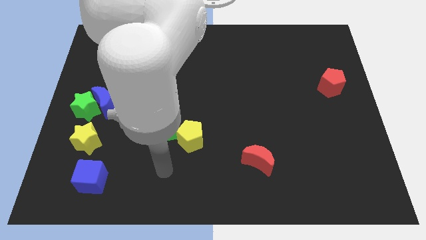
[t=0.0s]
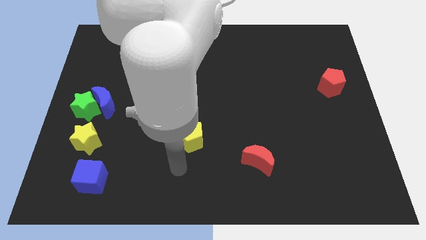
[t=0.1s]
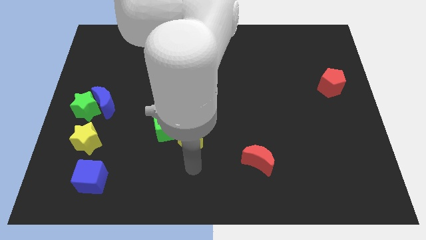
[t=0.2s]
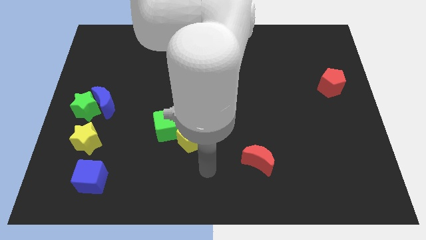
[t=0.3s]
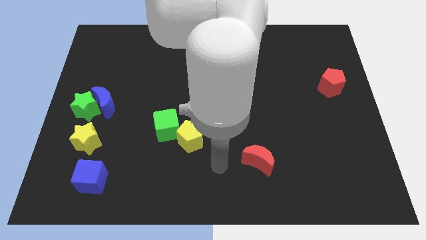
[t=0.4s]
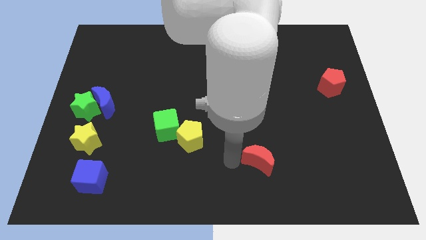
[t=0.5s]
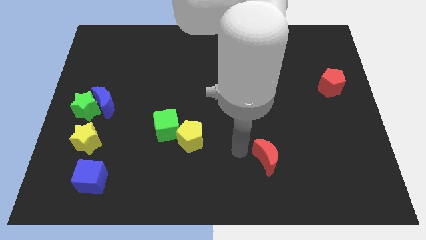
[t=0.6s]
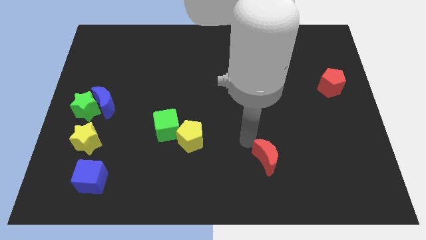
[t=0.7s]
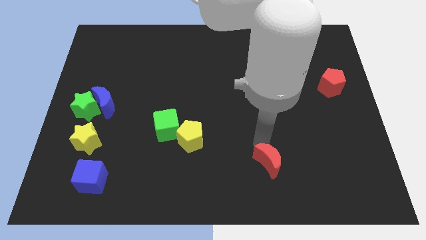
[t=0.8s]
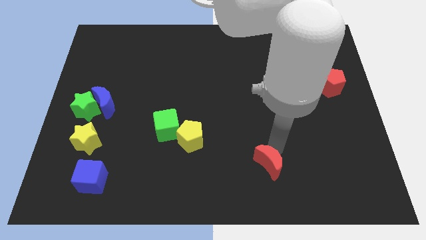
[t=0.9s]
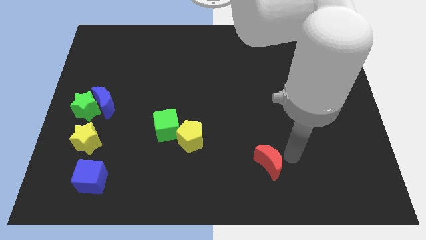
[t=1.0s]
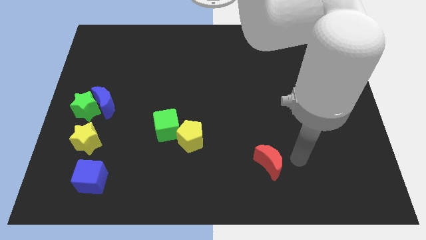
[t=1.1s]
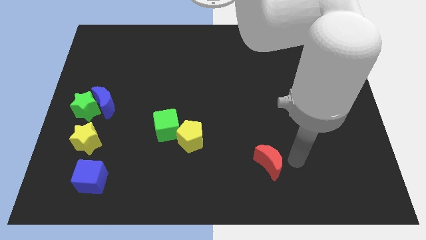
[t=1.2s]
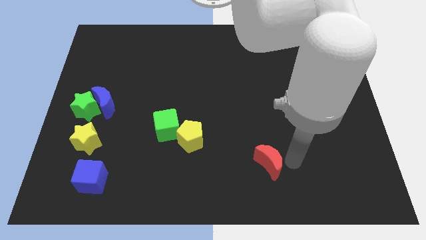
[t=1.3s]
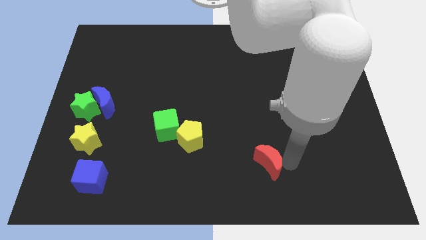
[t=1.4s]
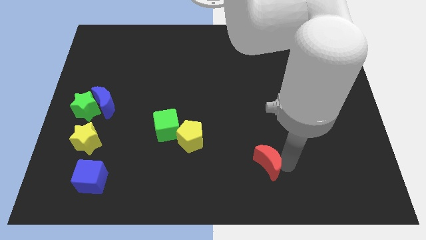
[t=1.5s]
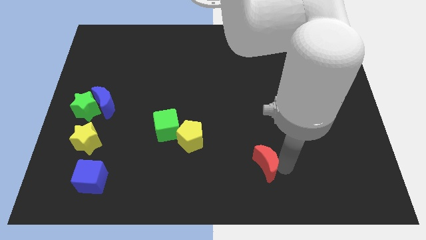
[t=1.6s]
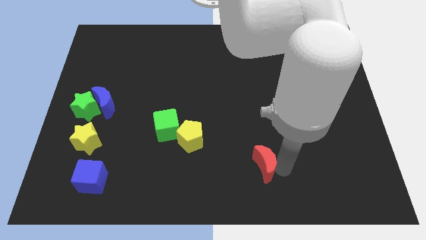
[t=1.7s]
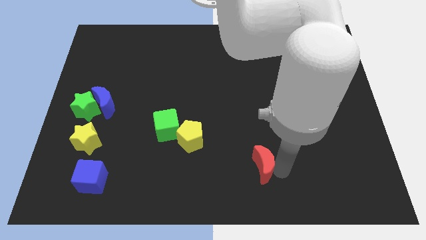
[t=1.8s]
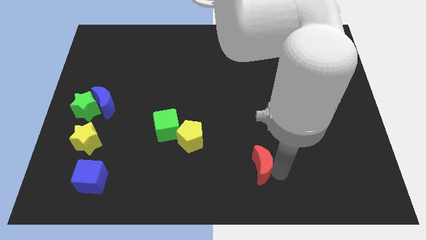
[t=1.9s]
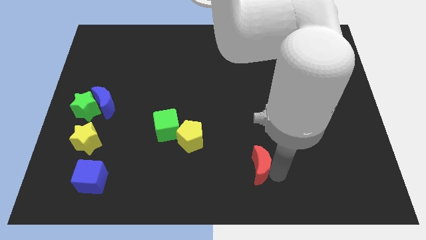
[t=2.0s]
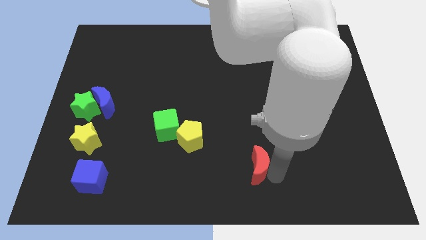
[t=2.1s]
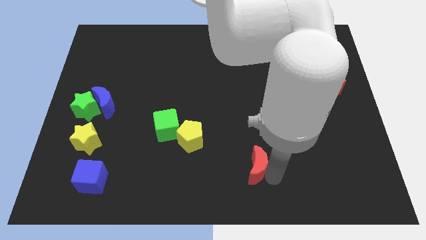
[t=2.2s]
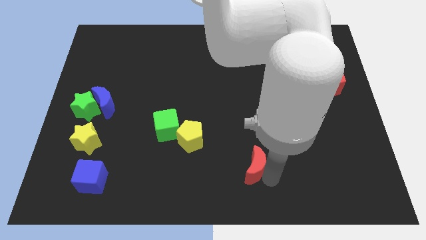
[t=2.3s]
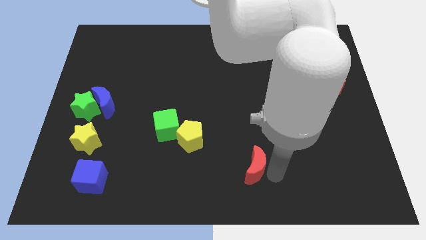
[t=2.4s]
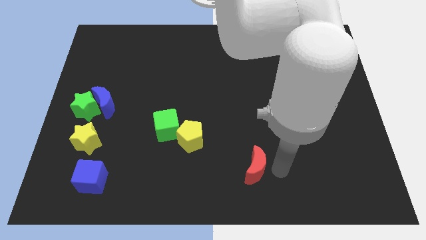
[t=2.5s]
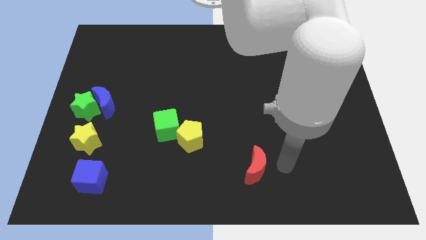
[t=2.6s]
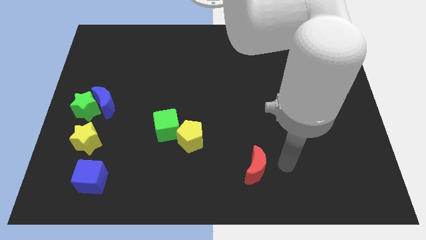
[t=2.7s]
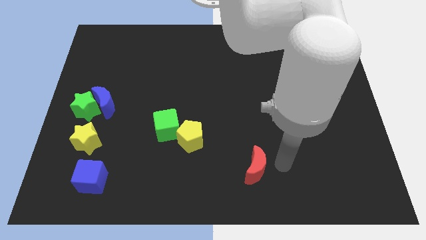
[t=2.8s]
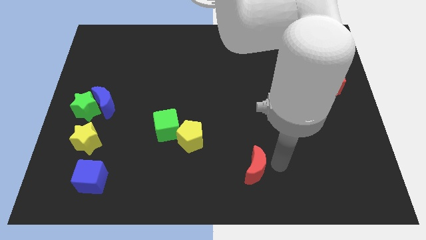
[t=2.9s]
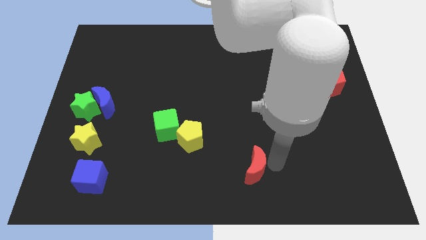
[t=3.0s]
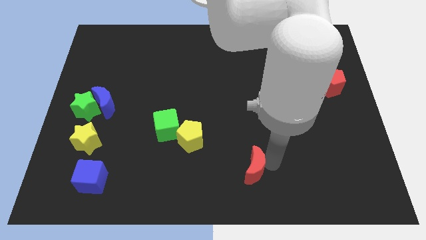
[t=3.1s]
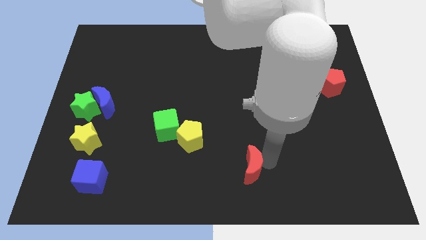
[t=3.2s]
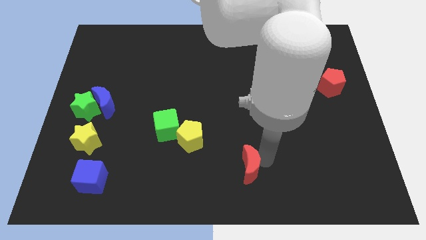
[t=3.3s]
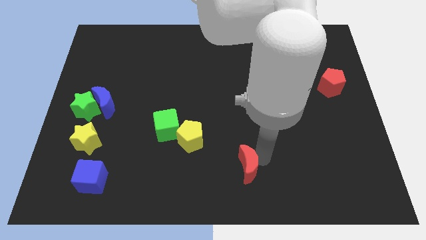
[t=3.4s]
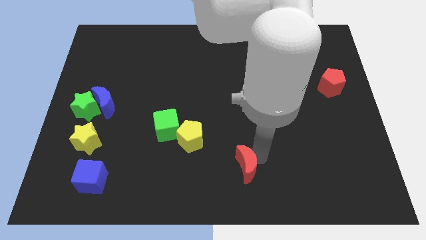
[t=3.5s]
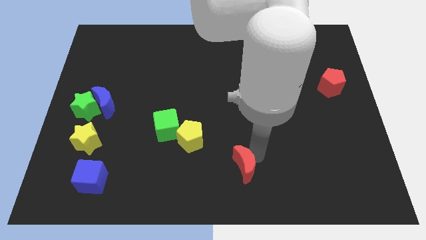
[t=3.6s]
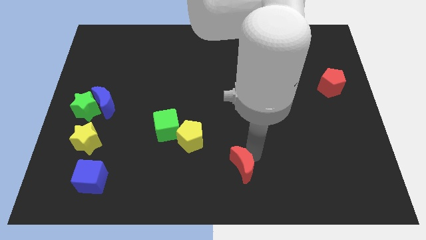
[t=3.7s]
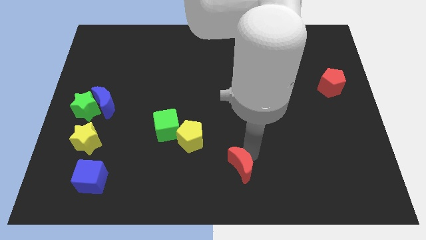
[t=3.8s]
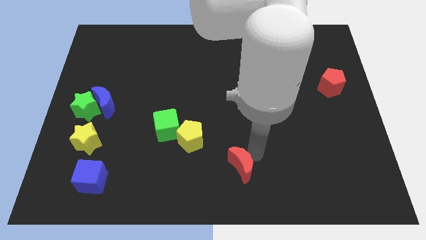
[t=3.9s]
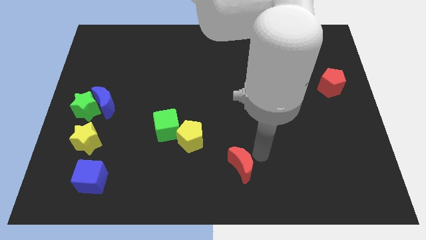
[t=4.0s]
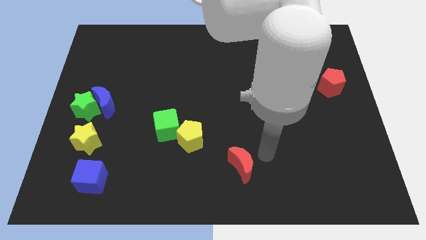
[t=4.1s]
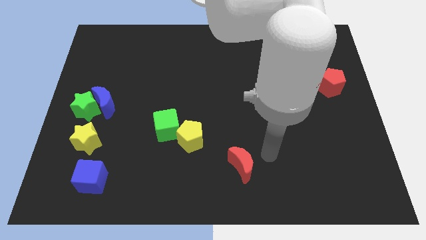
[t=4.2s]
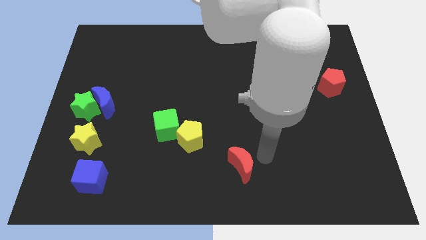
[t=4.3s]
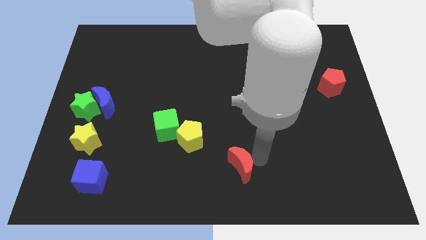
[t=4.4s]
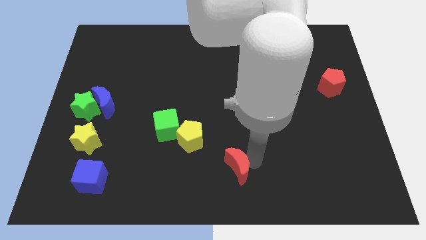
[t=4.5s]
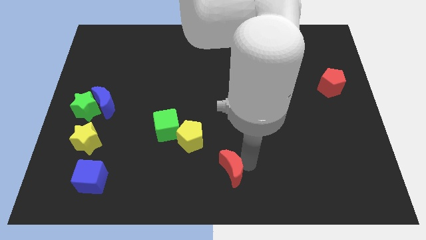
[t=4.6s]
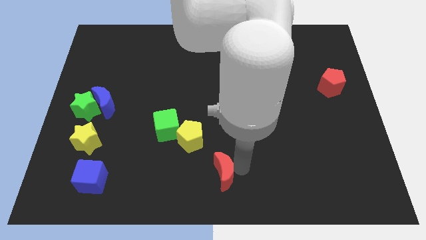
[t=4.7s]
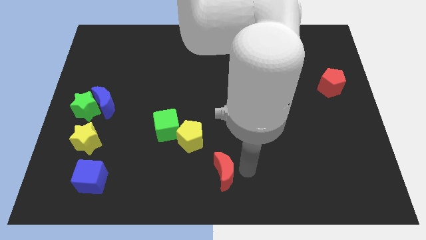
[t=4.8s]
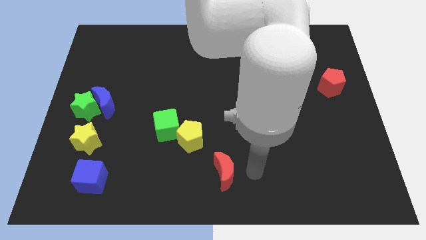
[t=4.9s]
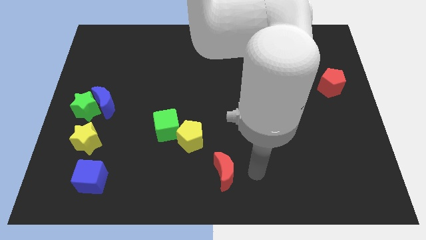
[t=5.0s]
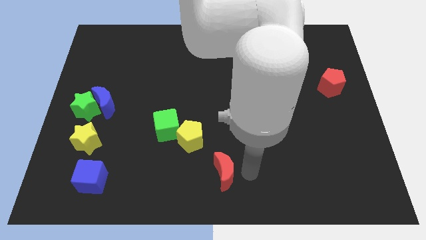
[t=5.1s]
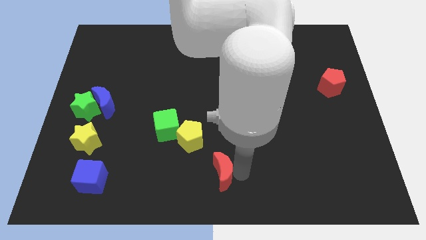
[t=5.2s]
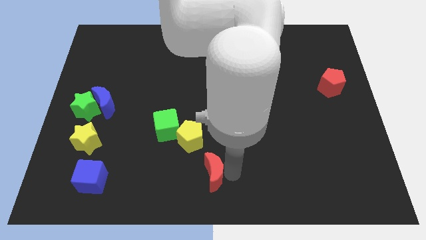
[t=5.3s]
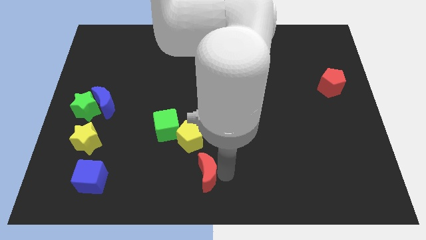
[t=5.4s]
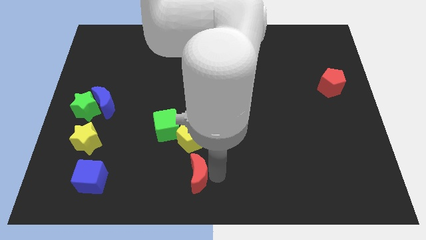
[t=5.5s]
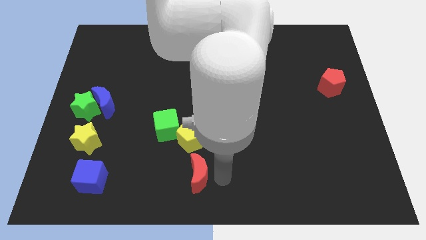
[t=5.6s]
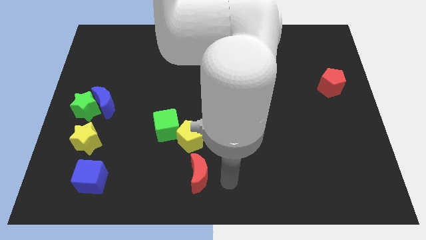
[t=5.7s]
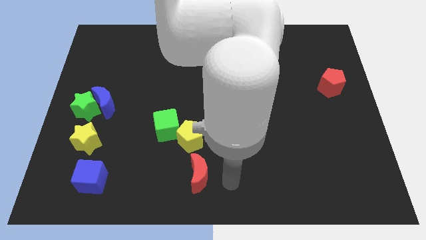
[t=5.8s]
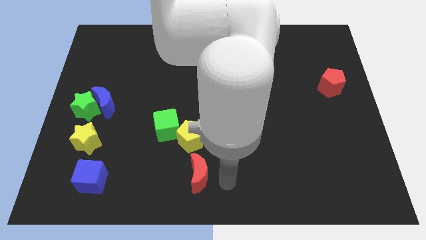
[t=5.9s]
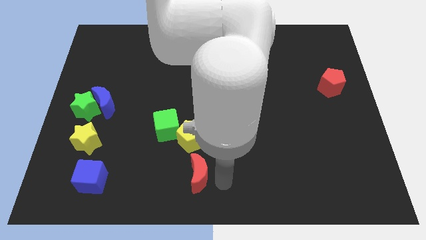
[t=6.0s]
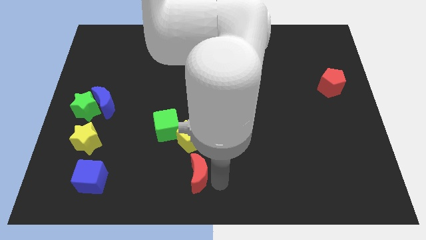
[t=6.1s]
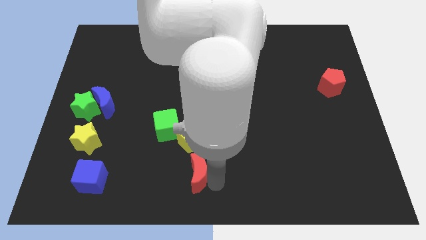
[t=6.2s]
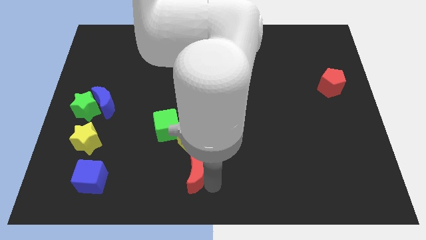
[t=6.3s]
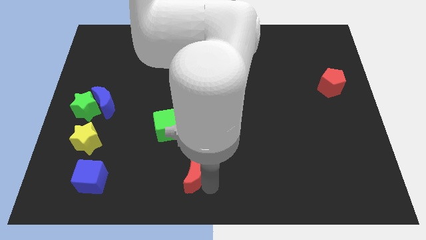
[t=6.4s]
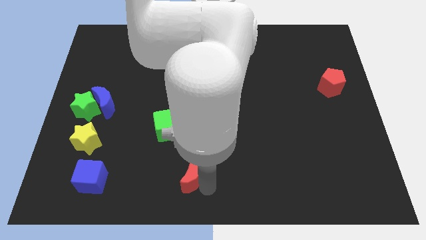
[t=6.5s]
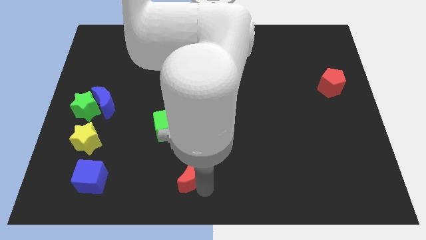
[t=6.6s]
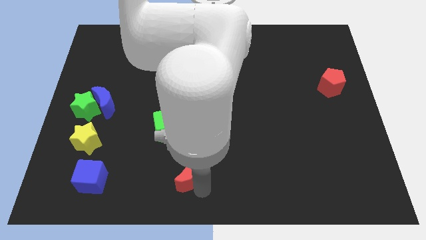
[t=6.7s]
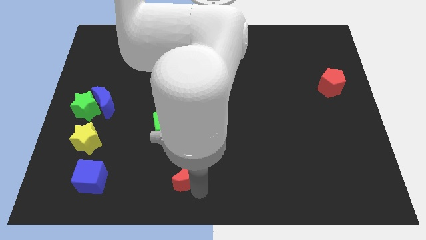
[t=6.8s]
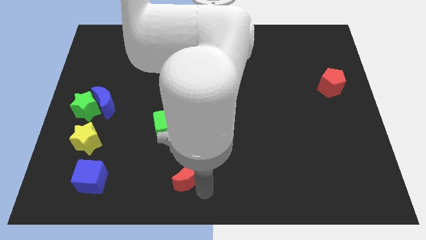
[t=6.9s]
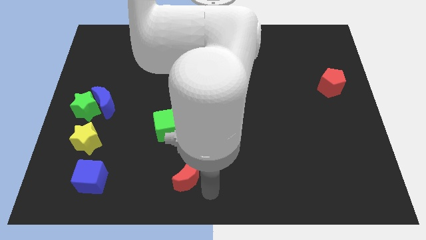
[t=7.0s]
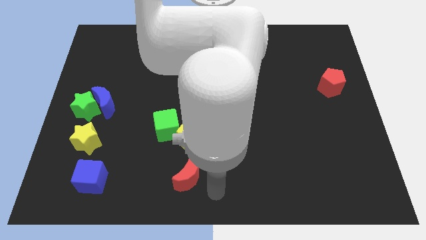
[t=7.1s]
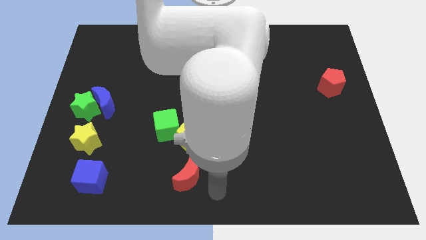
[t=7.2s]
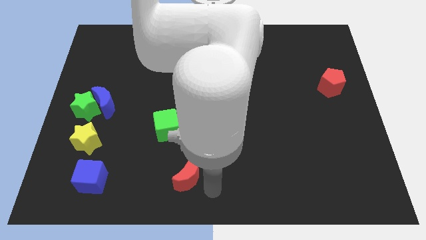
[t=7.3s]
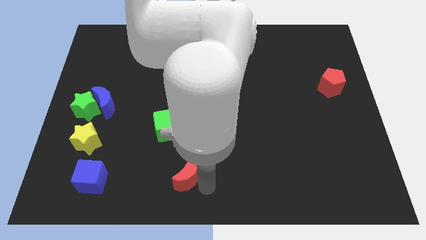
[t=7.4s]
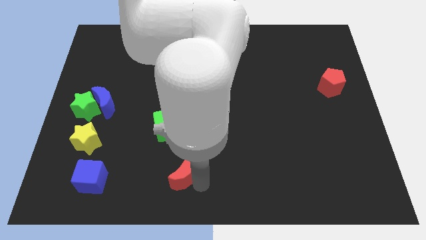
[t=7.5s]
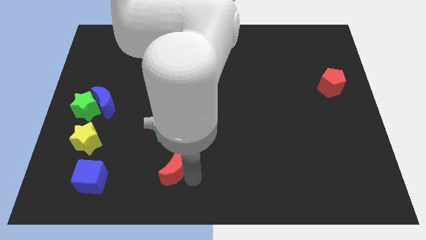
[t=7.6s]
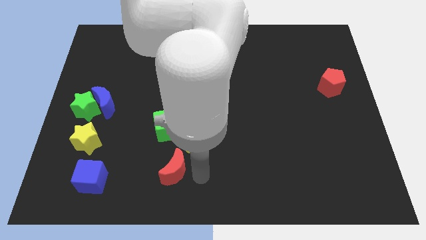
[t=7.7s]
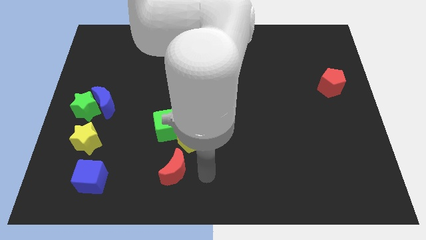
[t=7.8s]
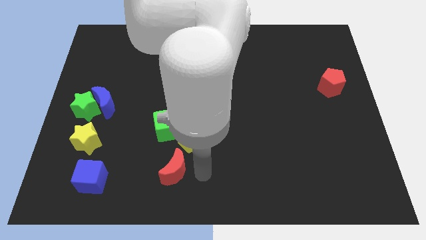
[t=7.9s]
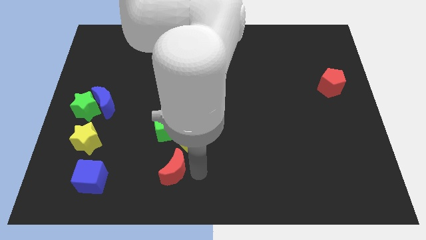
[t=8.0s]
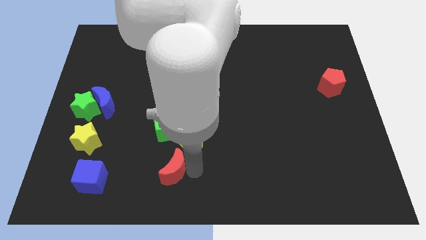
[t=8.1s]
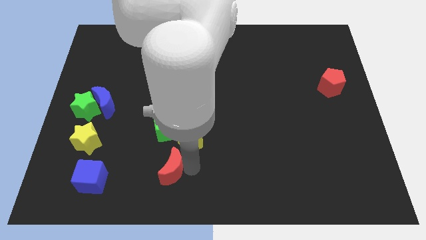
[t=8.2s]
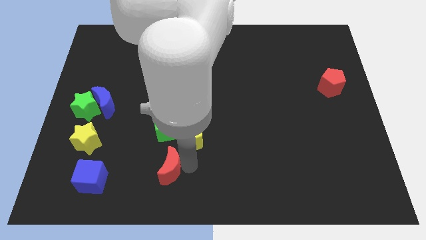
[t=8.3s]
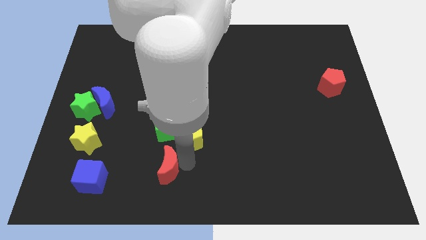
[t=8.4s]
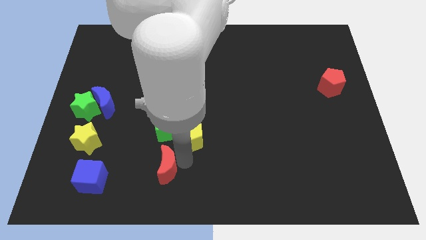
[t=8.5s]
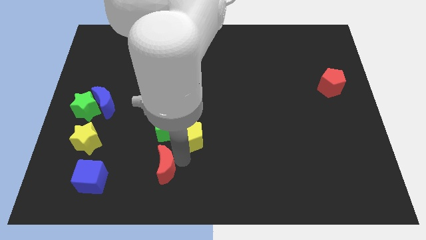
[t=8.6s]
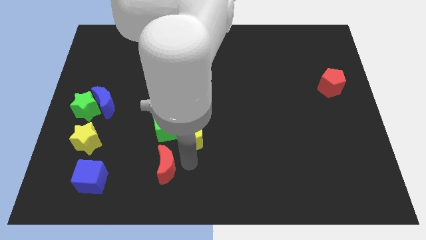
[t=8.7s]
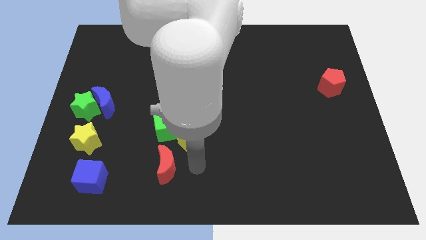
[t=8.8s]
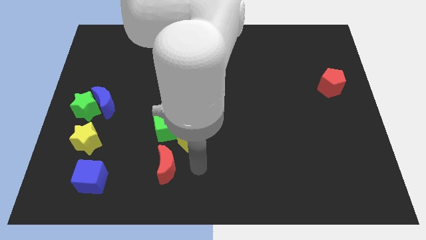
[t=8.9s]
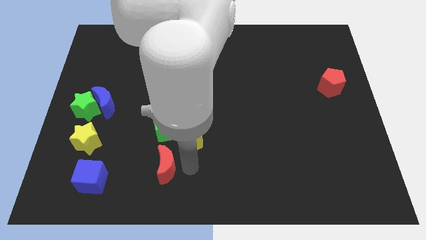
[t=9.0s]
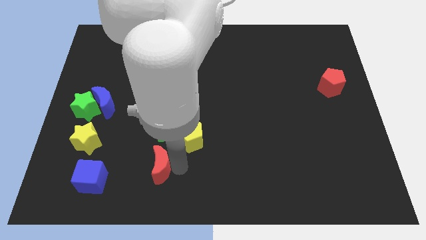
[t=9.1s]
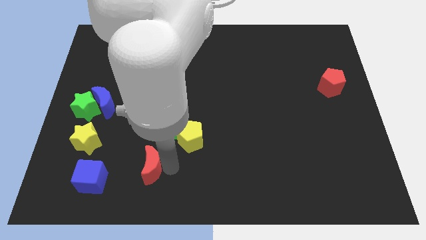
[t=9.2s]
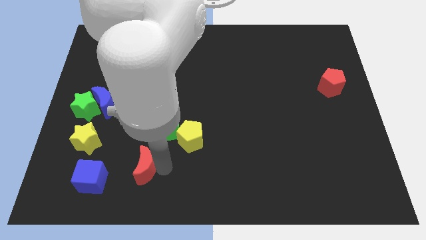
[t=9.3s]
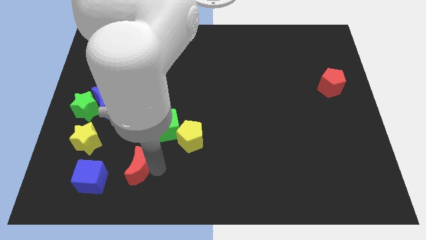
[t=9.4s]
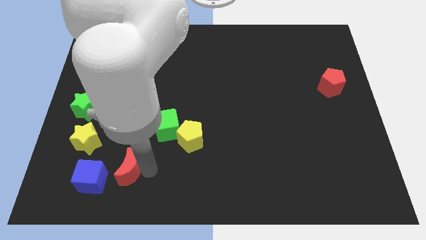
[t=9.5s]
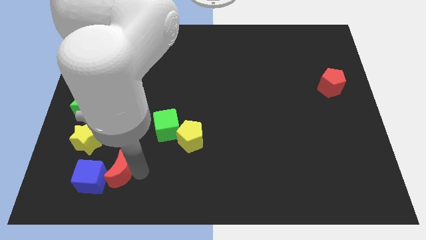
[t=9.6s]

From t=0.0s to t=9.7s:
put the red moon diagonally down and to the right of the yellow star
